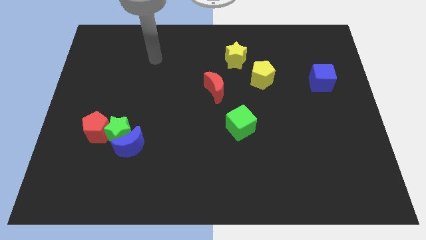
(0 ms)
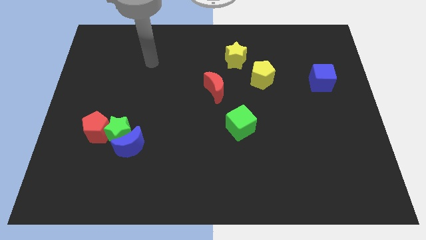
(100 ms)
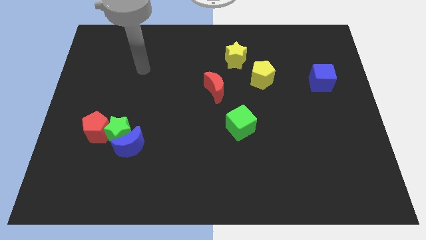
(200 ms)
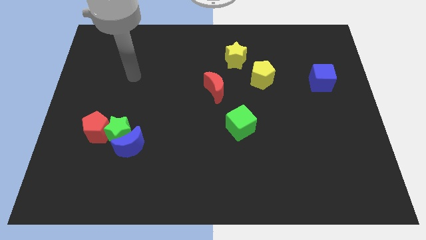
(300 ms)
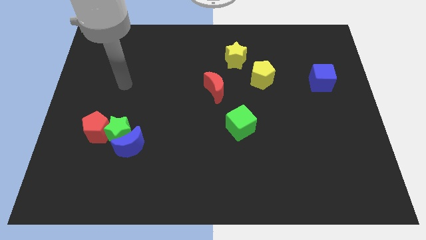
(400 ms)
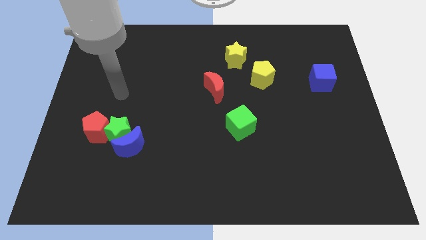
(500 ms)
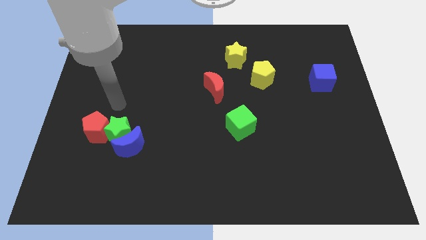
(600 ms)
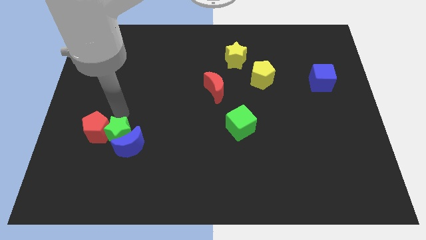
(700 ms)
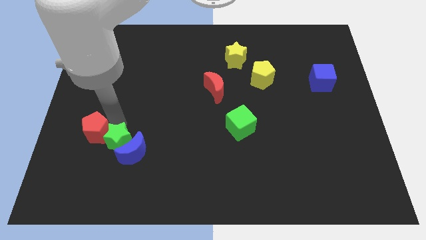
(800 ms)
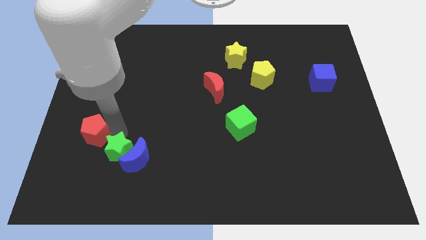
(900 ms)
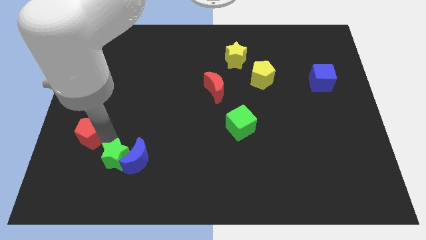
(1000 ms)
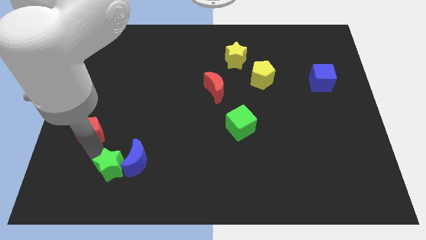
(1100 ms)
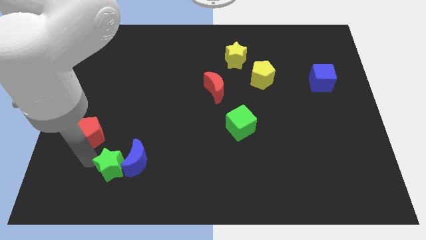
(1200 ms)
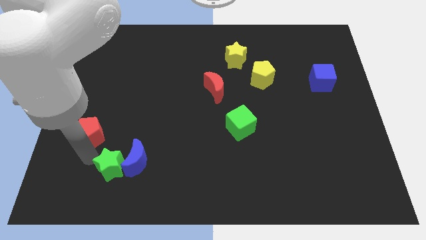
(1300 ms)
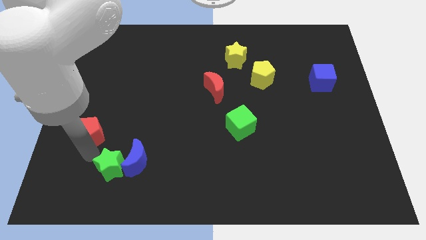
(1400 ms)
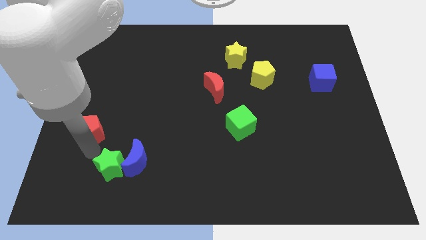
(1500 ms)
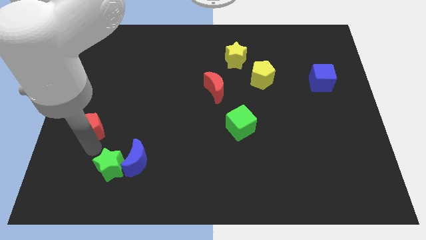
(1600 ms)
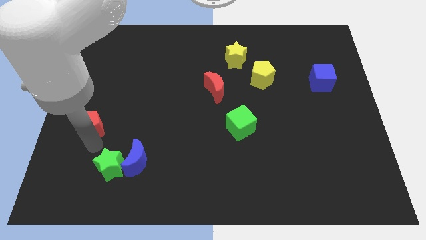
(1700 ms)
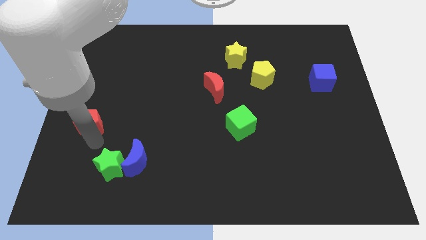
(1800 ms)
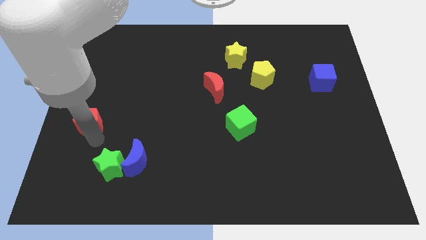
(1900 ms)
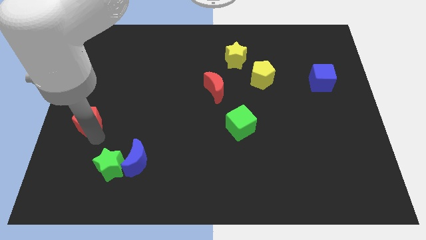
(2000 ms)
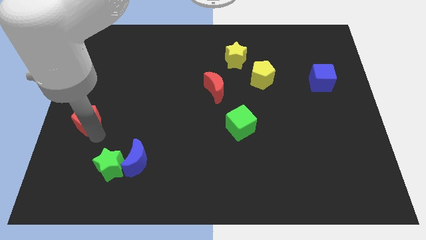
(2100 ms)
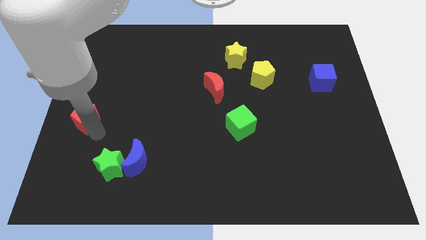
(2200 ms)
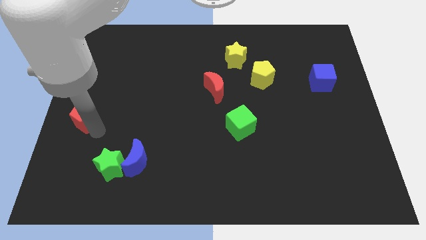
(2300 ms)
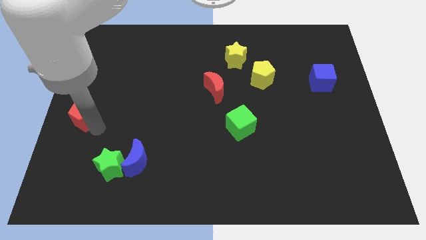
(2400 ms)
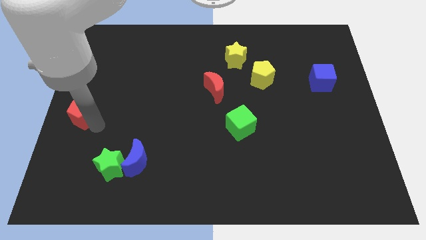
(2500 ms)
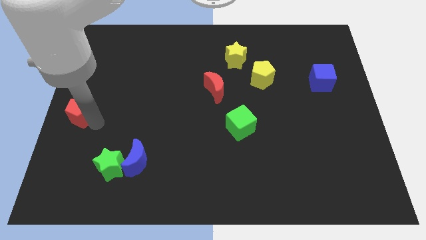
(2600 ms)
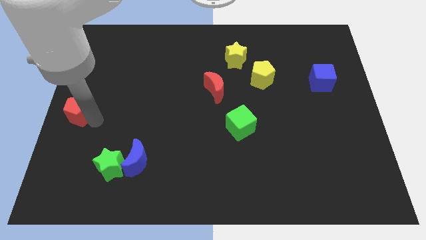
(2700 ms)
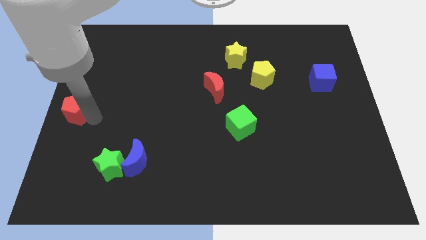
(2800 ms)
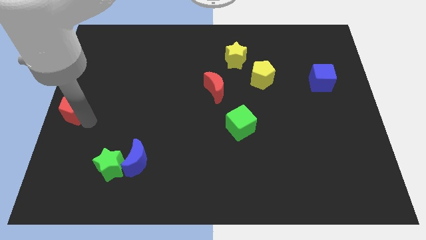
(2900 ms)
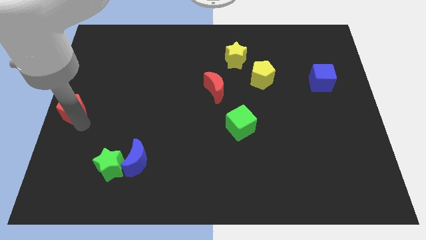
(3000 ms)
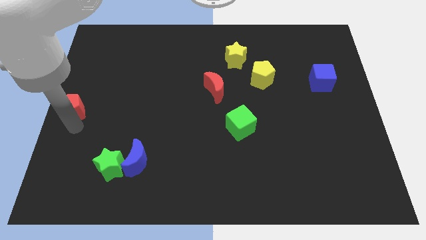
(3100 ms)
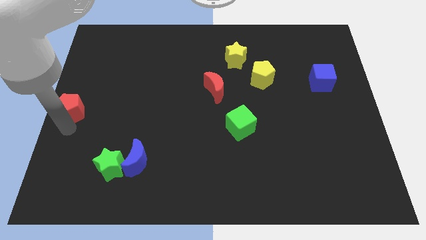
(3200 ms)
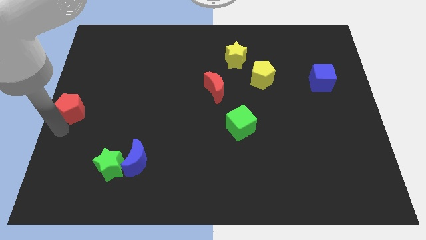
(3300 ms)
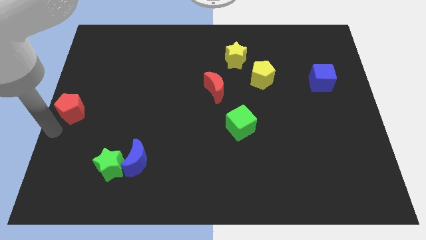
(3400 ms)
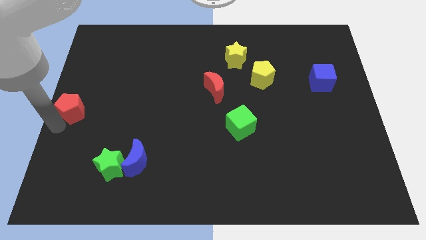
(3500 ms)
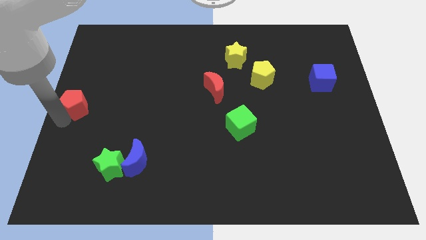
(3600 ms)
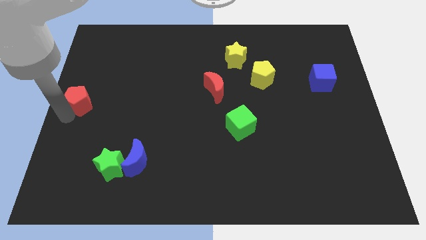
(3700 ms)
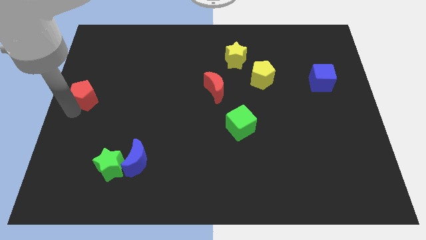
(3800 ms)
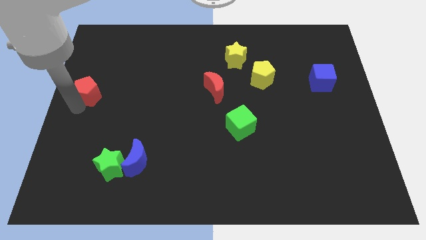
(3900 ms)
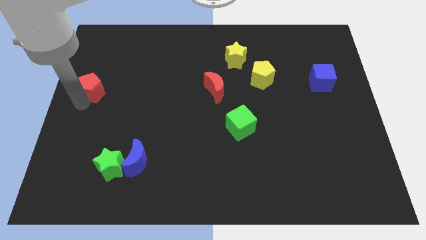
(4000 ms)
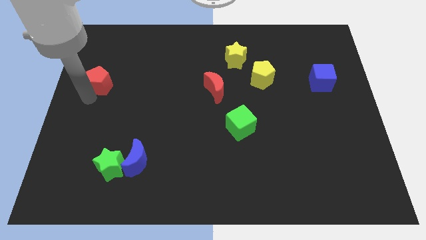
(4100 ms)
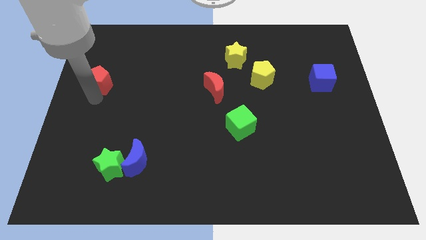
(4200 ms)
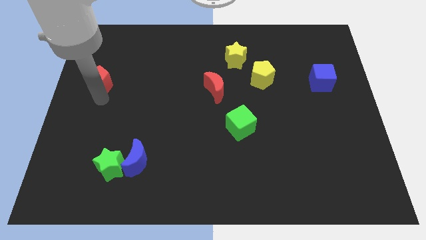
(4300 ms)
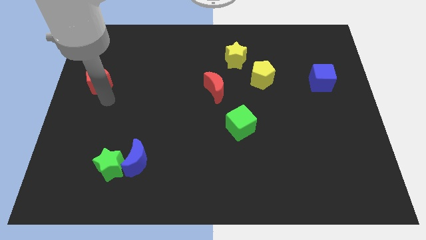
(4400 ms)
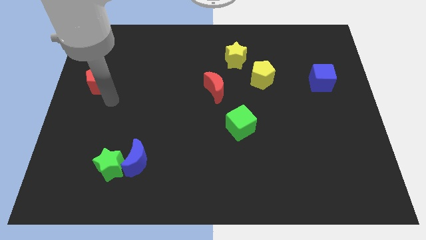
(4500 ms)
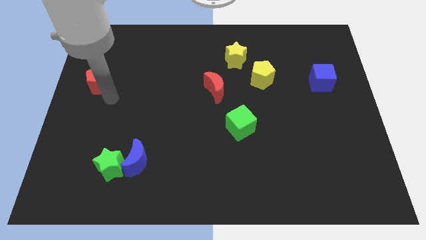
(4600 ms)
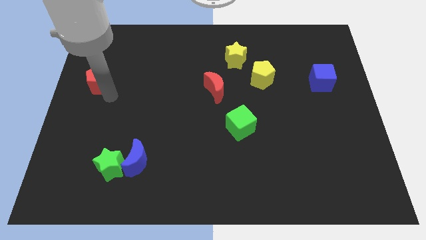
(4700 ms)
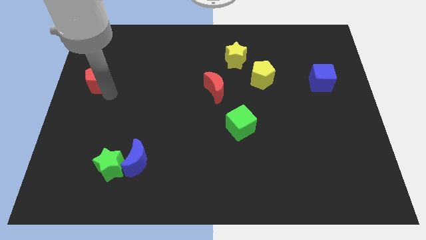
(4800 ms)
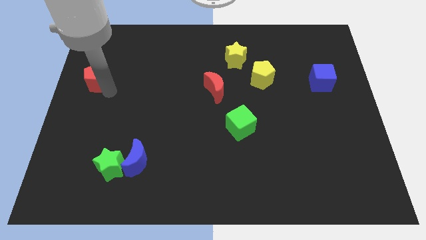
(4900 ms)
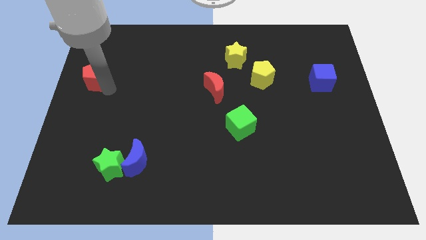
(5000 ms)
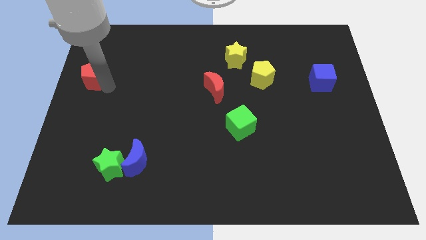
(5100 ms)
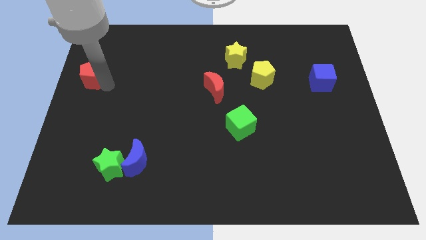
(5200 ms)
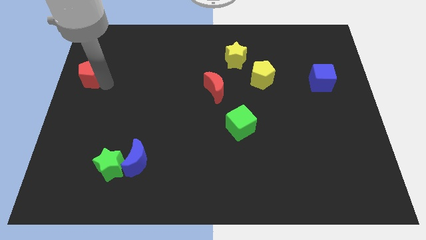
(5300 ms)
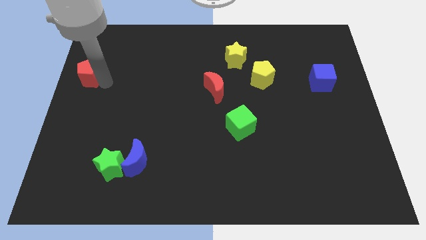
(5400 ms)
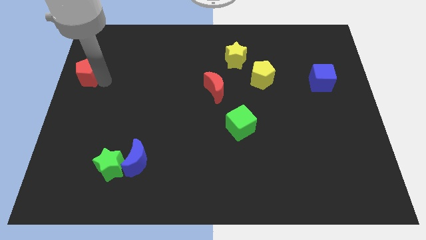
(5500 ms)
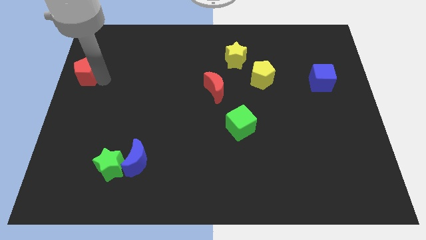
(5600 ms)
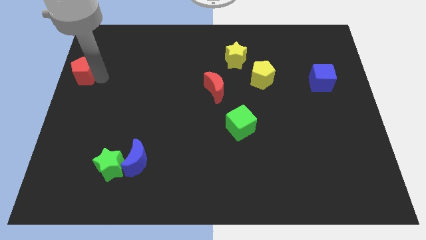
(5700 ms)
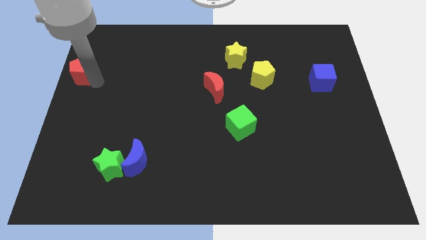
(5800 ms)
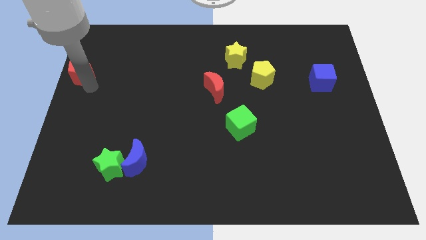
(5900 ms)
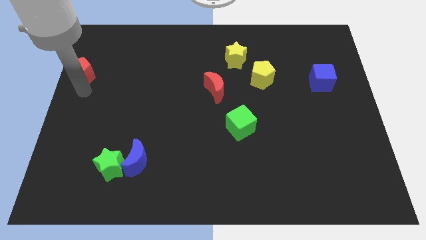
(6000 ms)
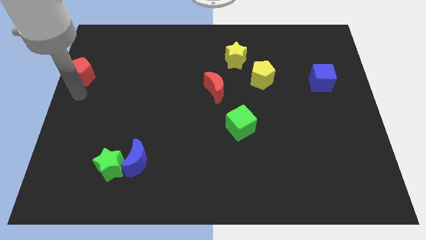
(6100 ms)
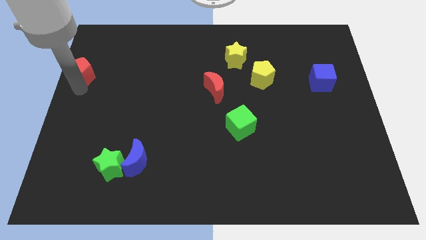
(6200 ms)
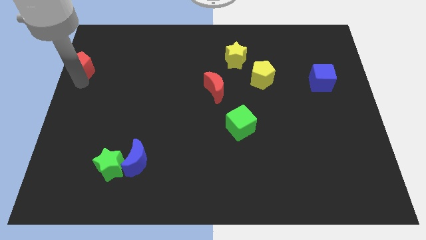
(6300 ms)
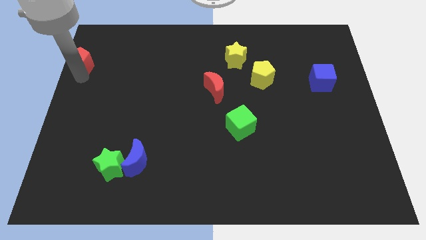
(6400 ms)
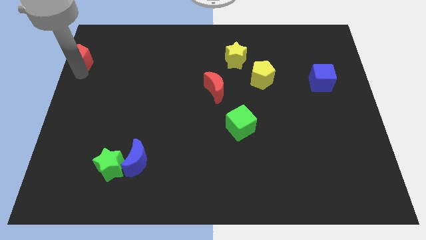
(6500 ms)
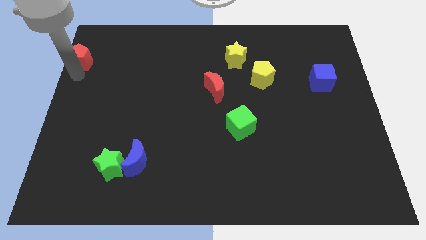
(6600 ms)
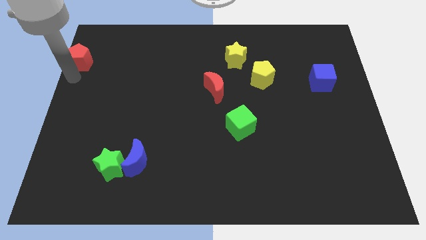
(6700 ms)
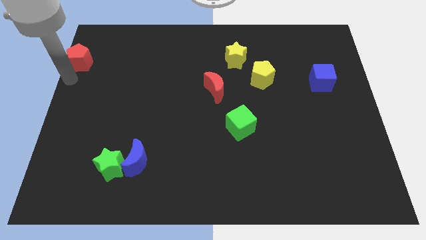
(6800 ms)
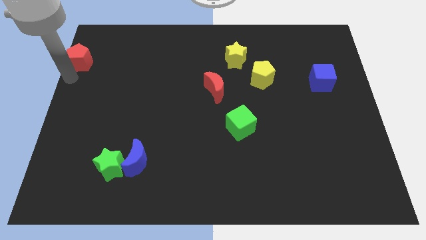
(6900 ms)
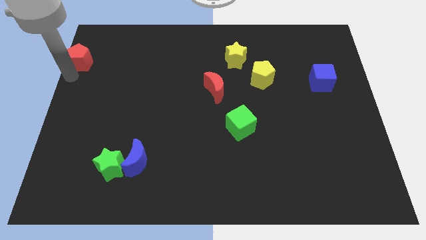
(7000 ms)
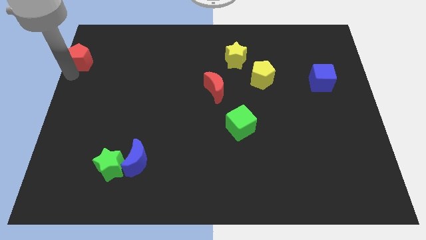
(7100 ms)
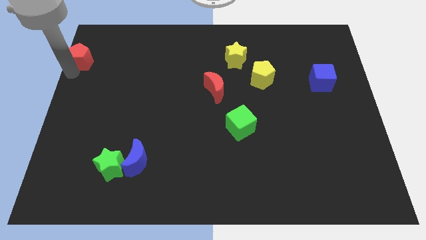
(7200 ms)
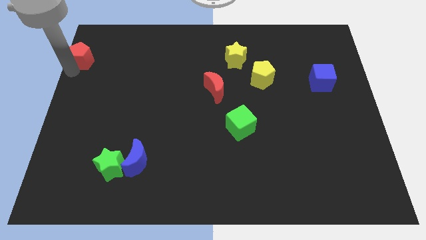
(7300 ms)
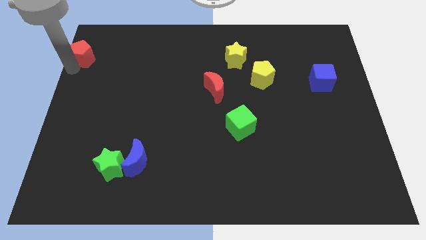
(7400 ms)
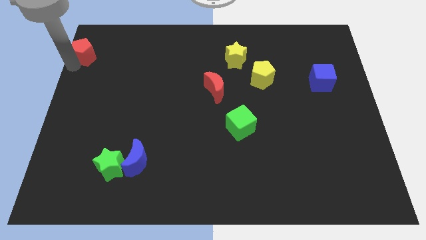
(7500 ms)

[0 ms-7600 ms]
push the red pentagon to the top left of the board
